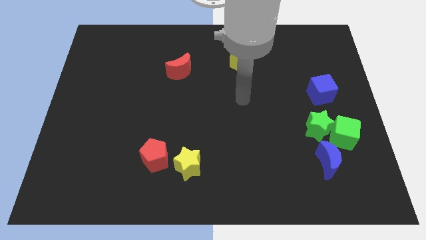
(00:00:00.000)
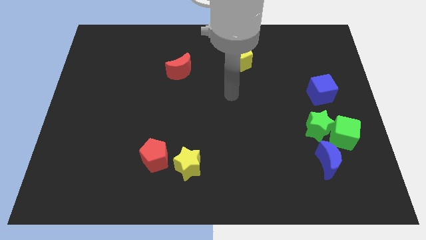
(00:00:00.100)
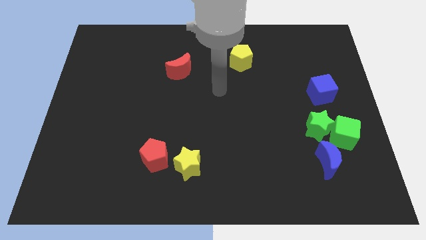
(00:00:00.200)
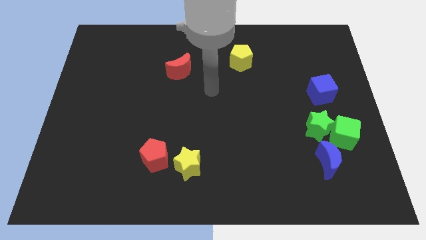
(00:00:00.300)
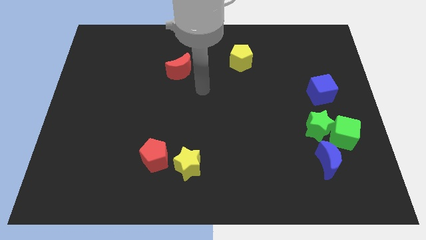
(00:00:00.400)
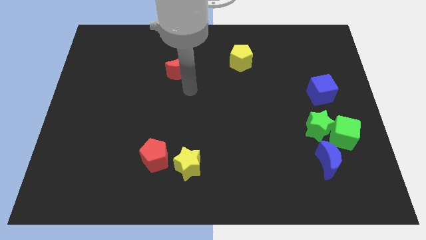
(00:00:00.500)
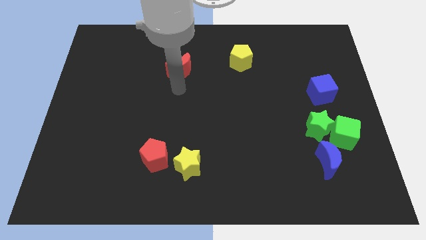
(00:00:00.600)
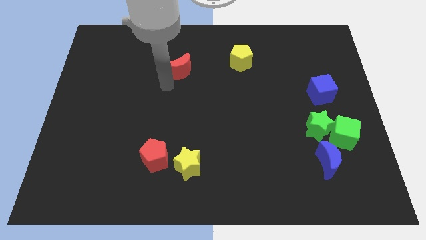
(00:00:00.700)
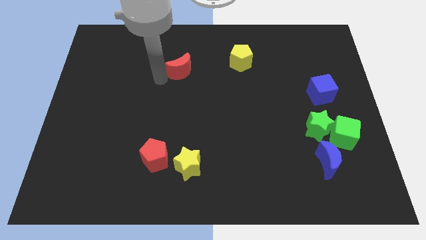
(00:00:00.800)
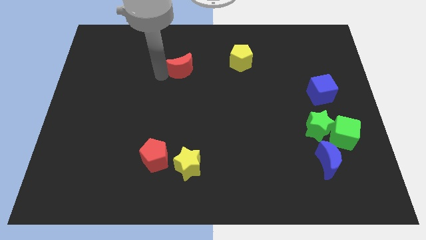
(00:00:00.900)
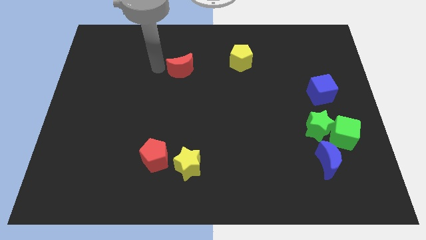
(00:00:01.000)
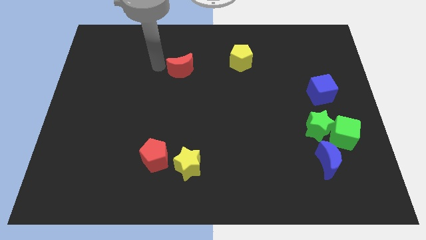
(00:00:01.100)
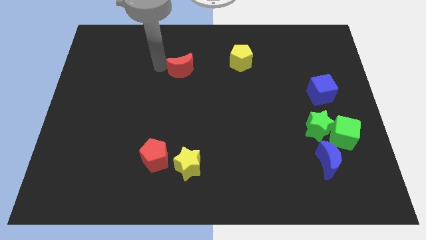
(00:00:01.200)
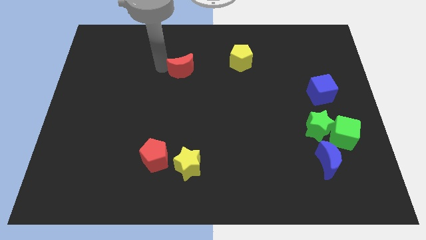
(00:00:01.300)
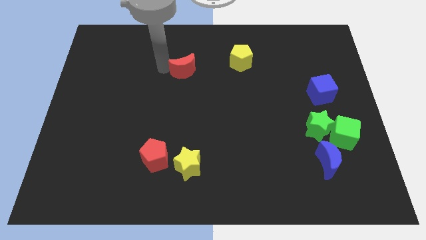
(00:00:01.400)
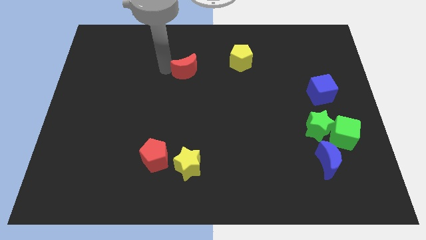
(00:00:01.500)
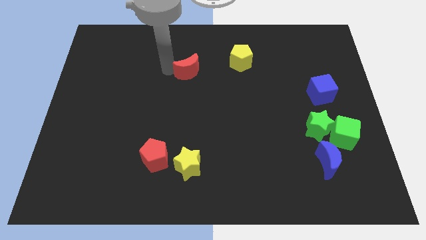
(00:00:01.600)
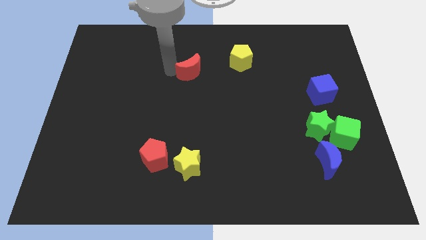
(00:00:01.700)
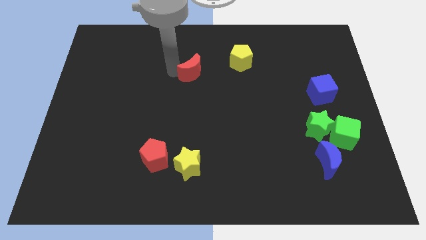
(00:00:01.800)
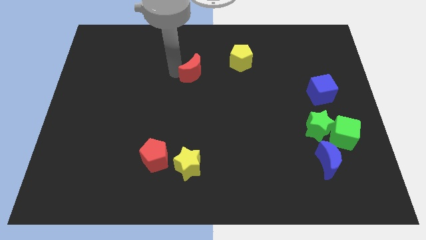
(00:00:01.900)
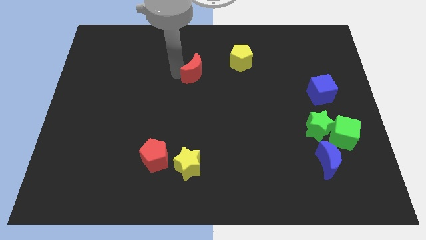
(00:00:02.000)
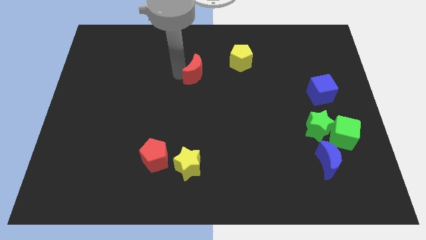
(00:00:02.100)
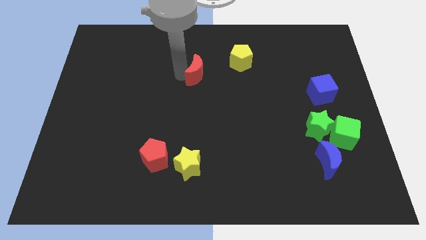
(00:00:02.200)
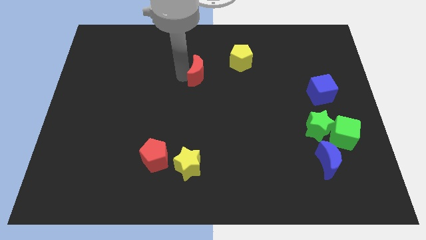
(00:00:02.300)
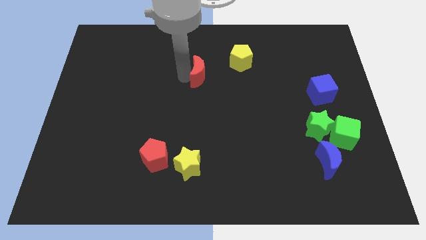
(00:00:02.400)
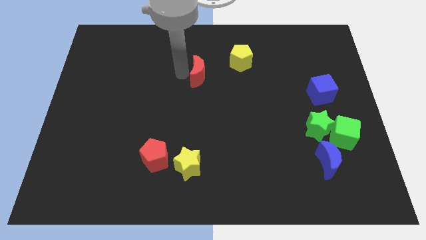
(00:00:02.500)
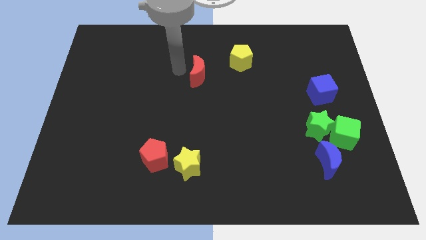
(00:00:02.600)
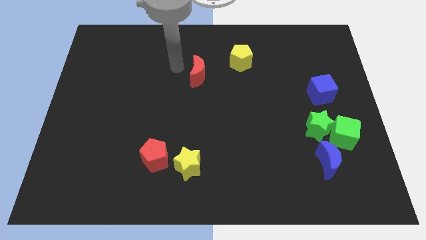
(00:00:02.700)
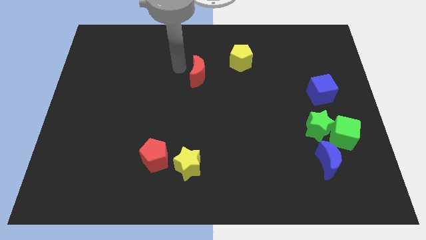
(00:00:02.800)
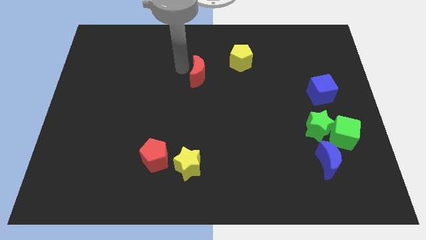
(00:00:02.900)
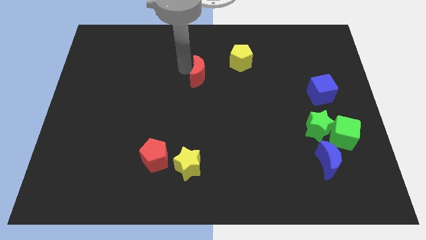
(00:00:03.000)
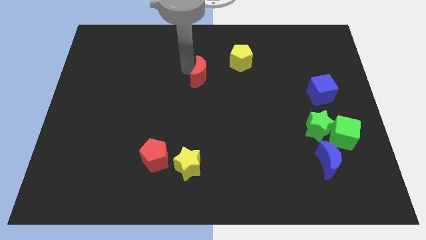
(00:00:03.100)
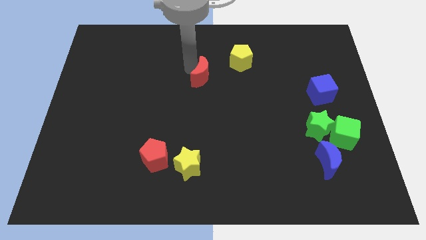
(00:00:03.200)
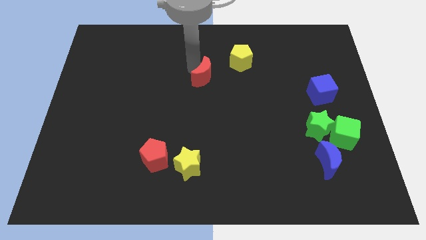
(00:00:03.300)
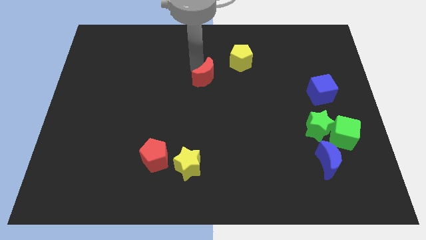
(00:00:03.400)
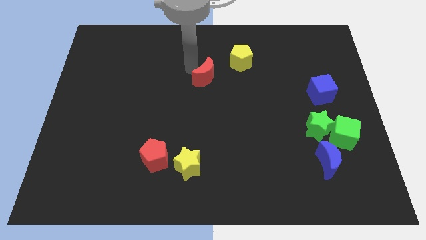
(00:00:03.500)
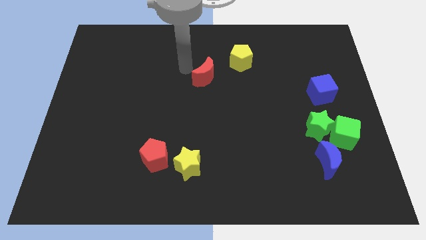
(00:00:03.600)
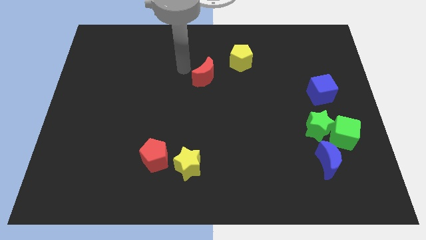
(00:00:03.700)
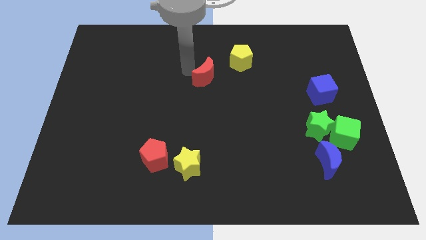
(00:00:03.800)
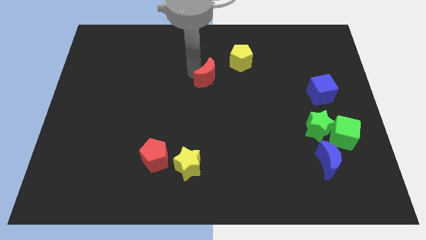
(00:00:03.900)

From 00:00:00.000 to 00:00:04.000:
slightly push the red moon right

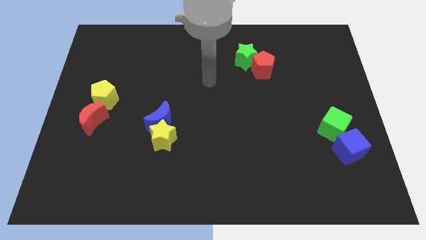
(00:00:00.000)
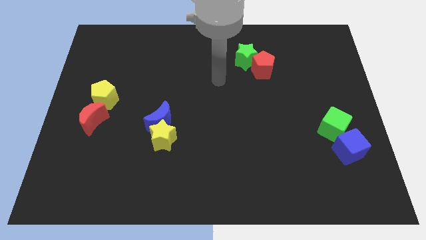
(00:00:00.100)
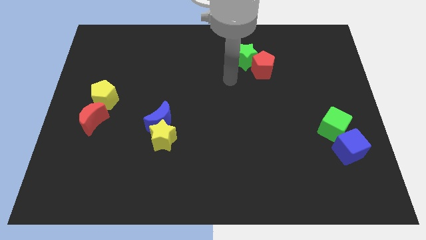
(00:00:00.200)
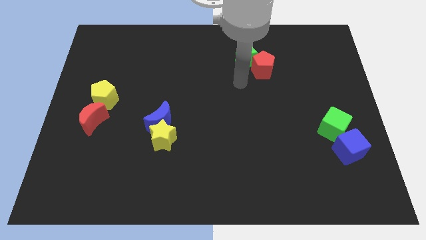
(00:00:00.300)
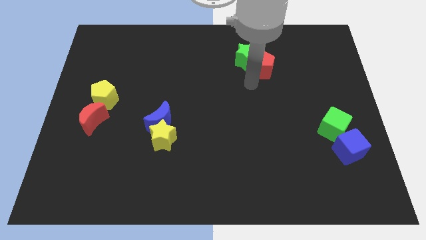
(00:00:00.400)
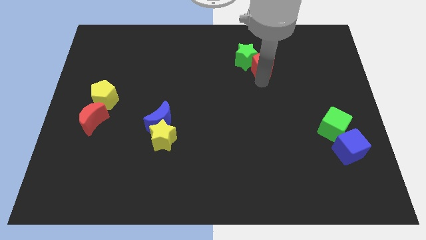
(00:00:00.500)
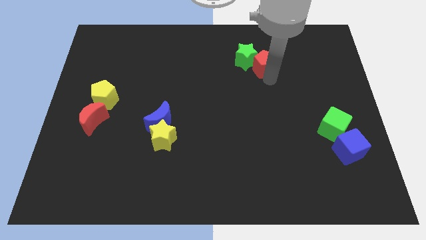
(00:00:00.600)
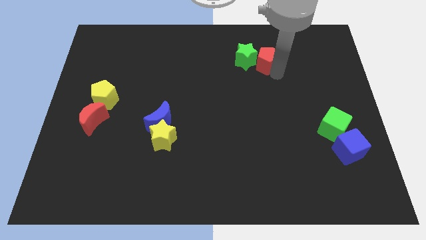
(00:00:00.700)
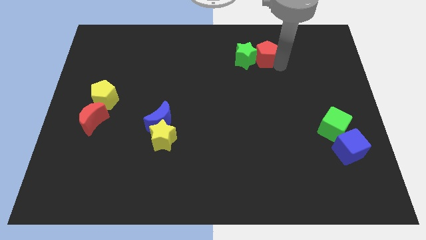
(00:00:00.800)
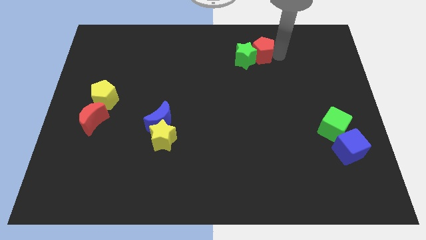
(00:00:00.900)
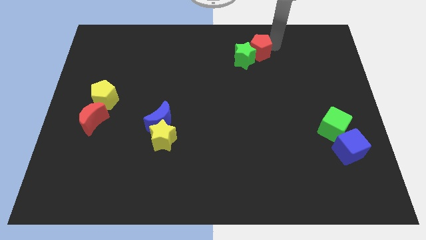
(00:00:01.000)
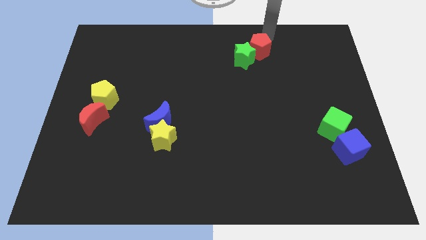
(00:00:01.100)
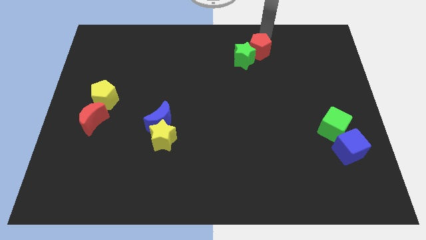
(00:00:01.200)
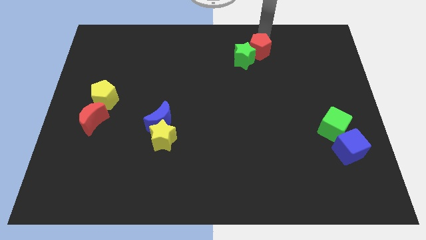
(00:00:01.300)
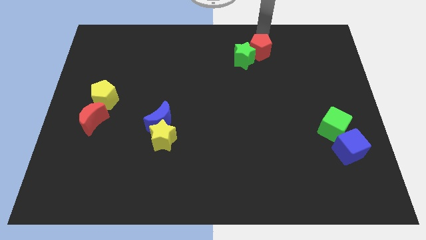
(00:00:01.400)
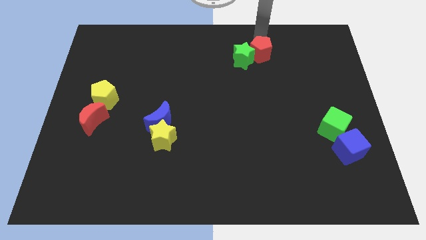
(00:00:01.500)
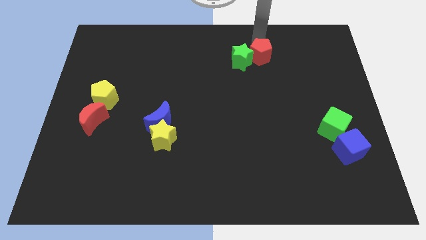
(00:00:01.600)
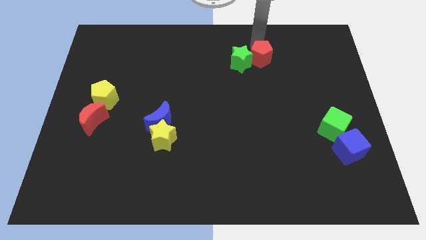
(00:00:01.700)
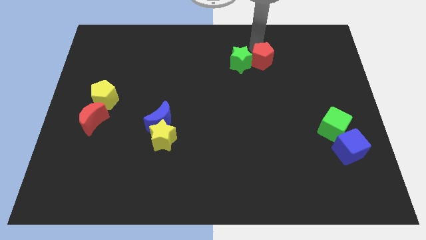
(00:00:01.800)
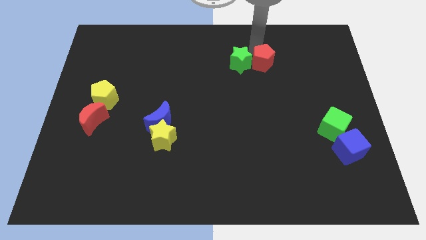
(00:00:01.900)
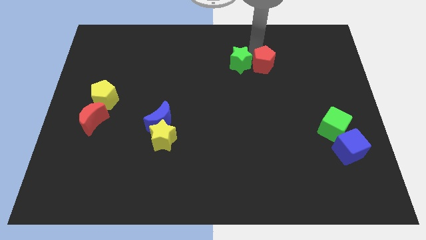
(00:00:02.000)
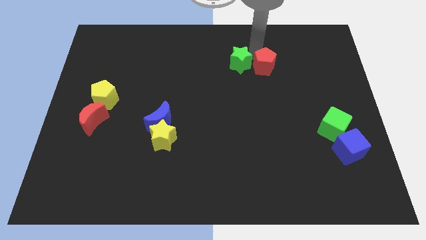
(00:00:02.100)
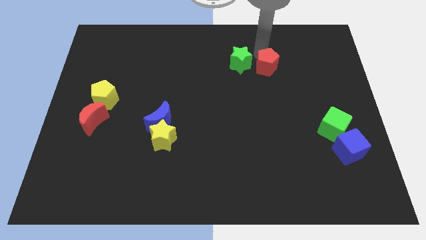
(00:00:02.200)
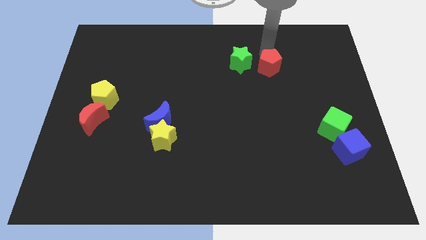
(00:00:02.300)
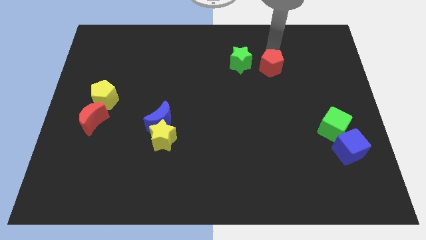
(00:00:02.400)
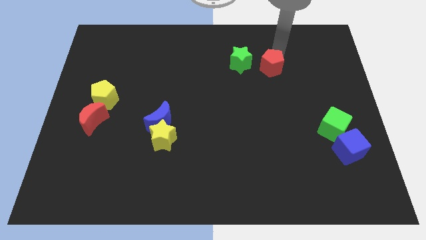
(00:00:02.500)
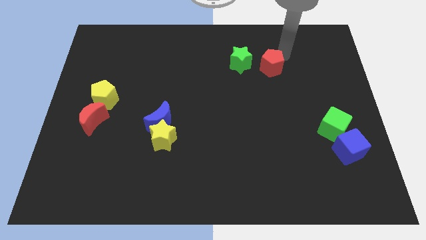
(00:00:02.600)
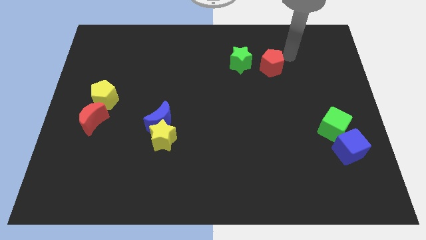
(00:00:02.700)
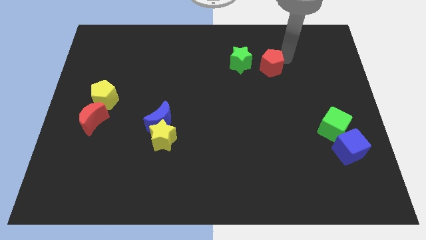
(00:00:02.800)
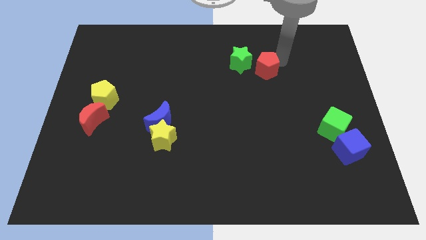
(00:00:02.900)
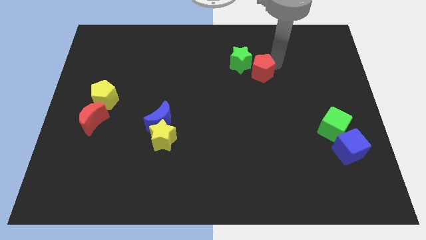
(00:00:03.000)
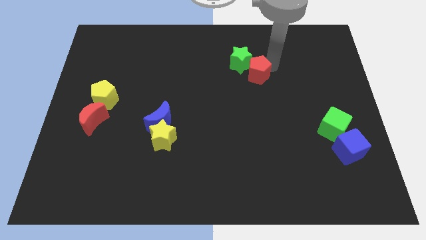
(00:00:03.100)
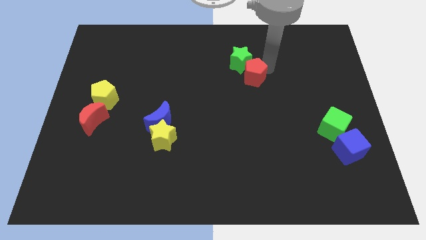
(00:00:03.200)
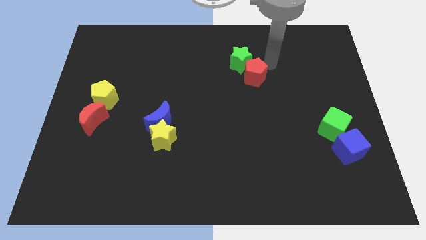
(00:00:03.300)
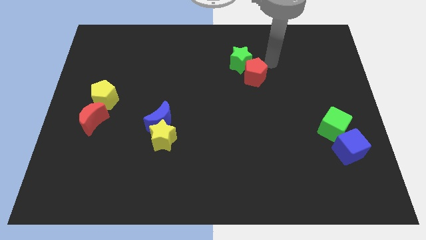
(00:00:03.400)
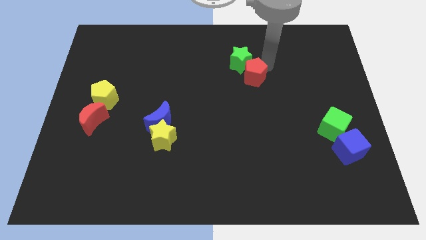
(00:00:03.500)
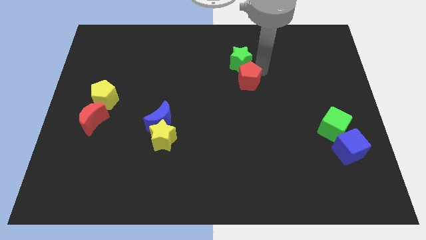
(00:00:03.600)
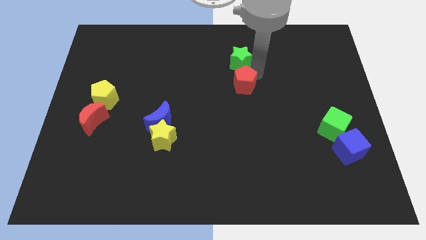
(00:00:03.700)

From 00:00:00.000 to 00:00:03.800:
push the red pentagon downwards and to the left a bit
